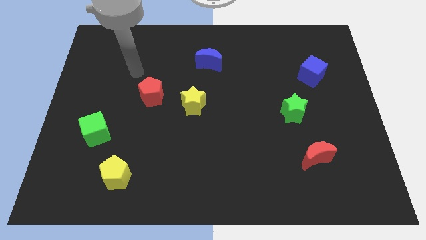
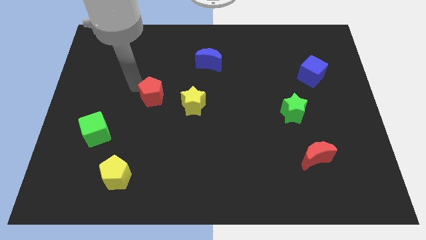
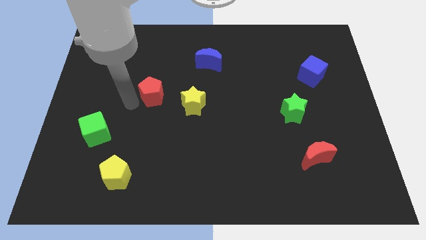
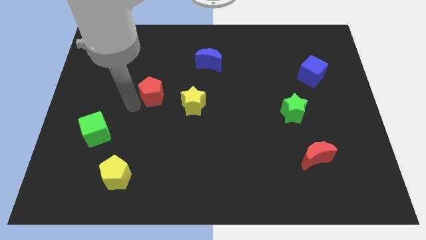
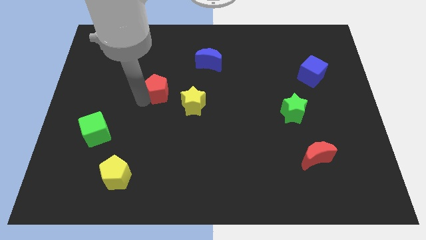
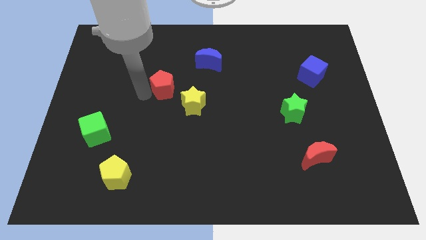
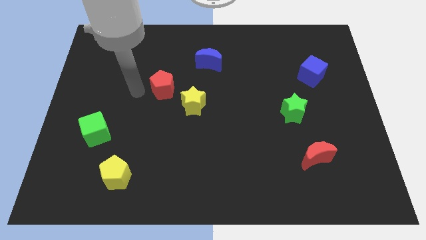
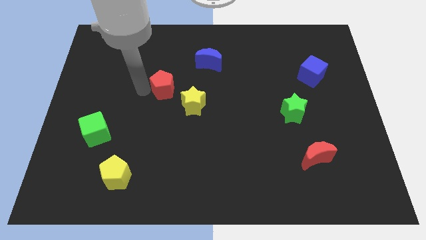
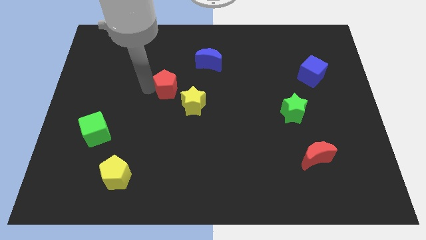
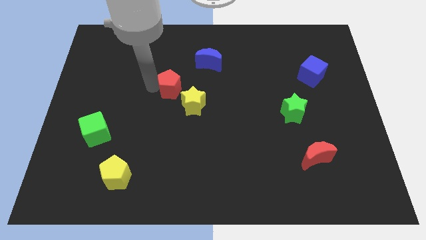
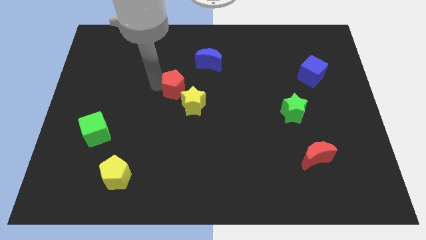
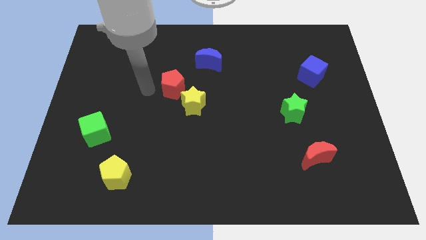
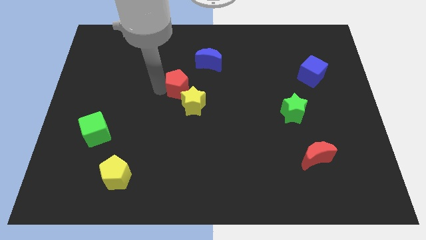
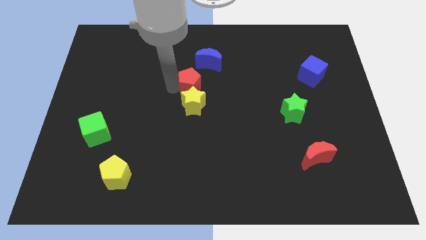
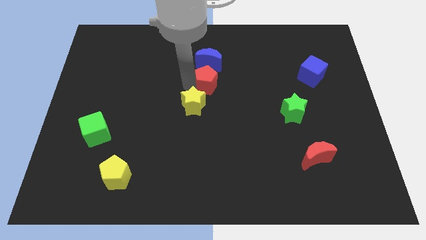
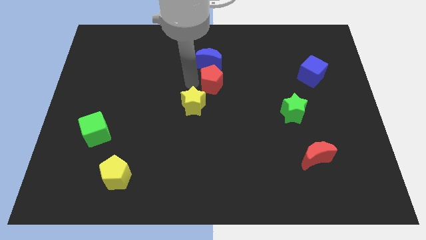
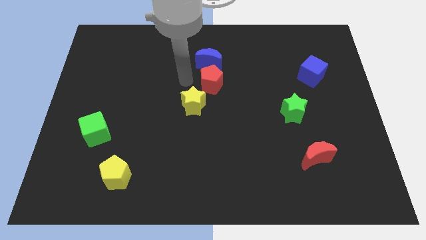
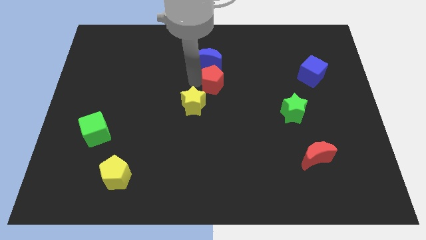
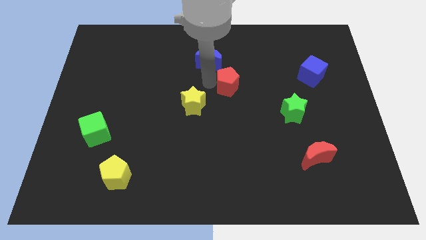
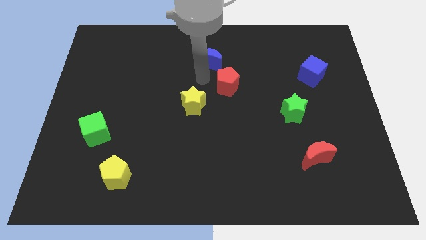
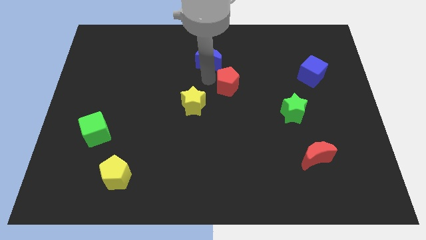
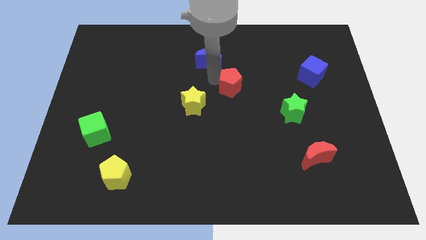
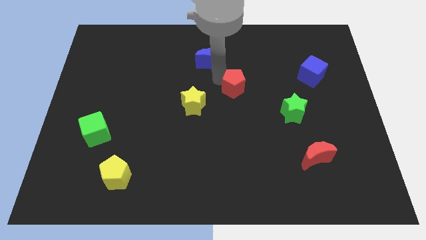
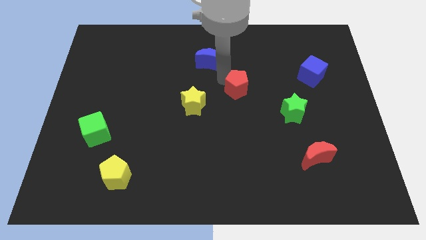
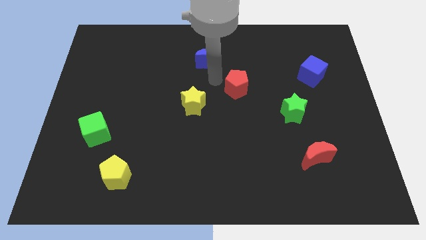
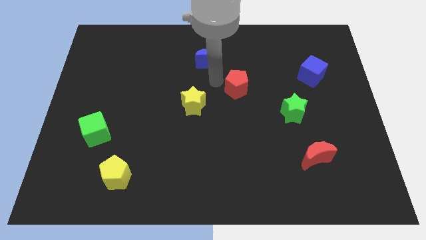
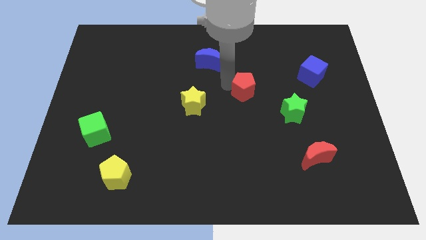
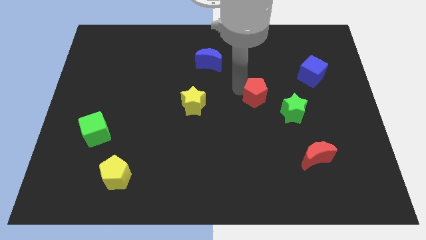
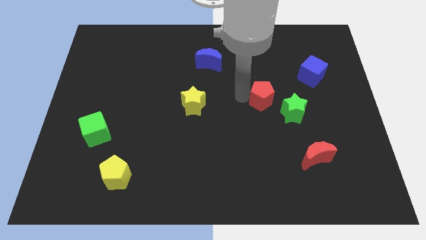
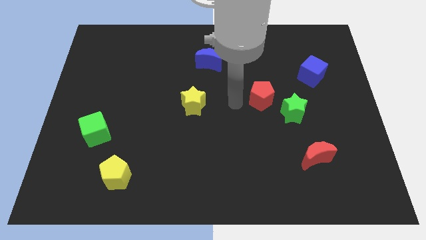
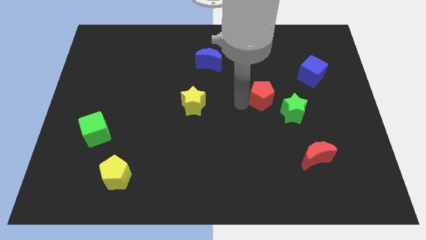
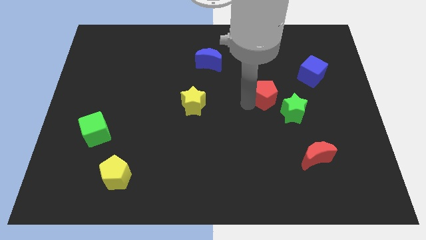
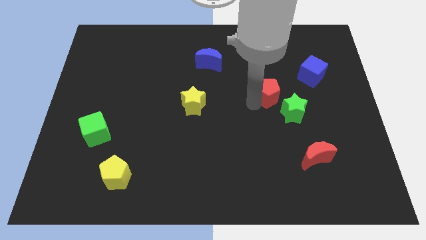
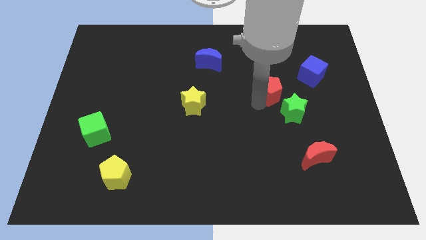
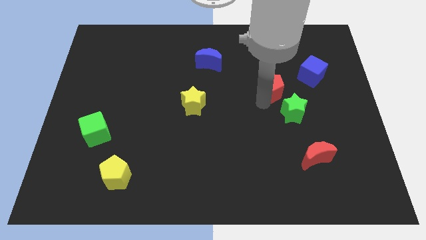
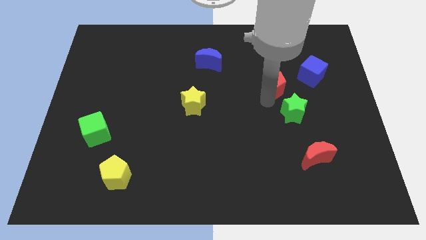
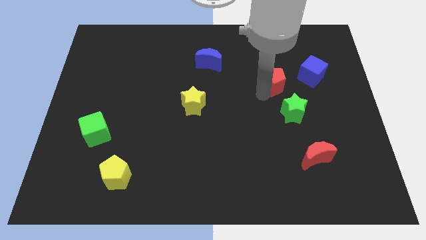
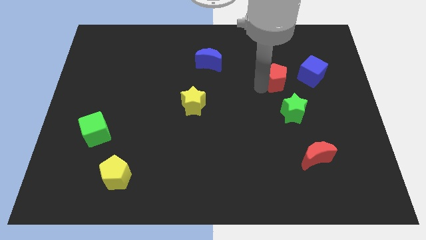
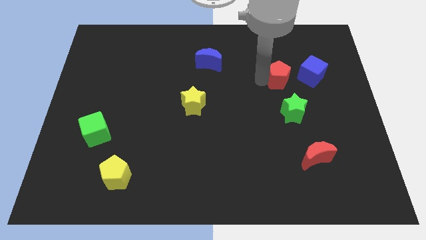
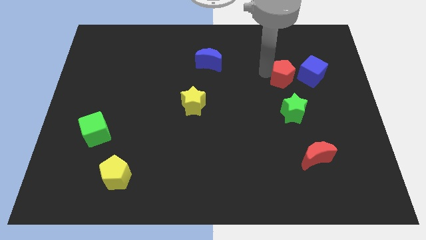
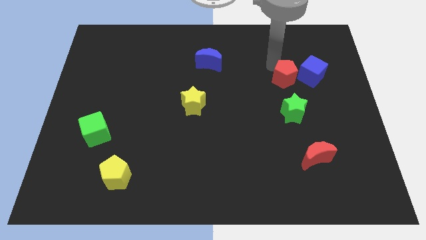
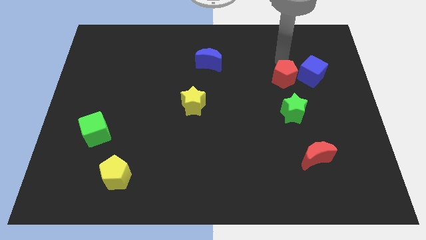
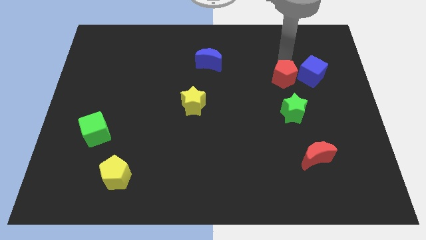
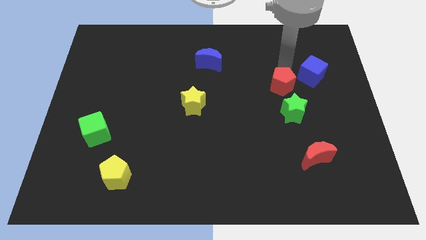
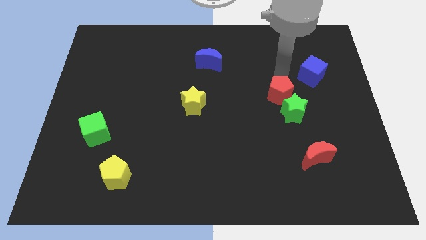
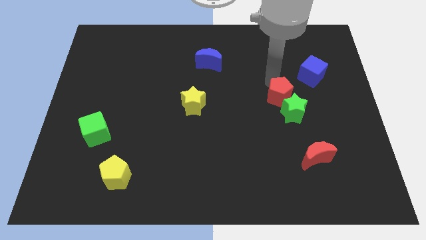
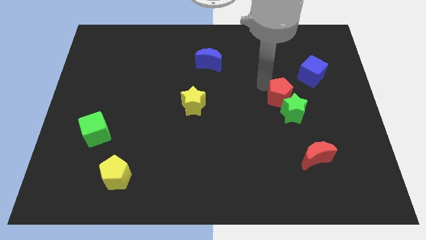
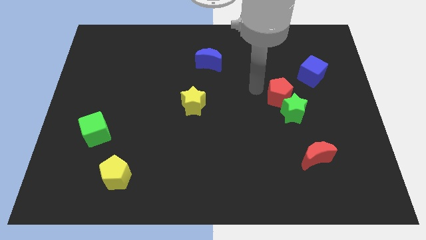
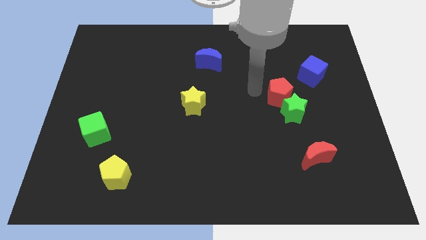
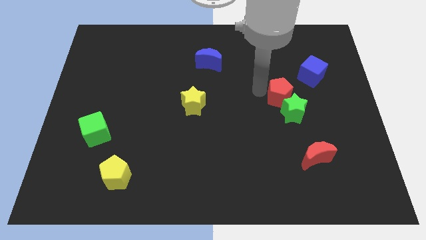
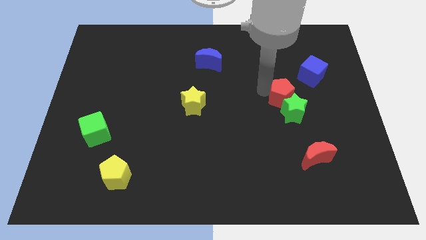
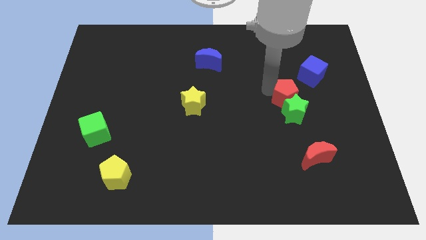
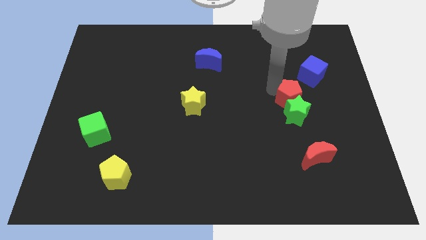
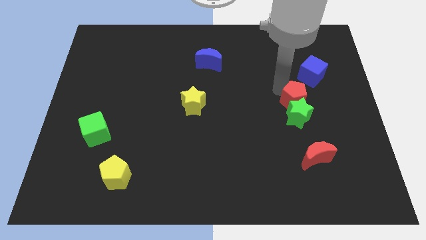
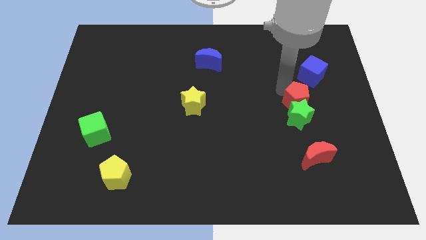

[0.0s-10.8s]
push the red pentagon below the blue cube
